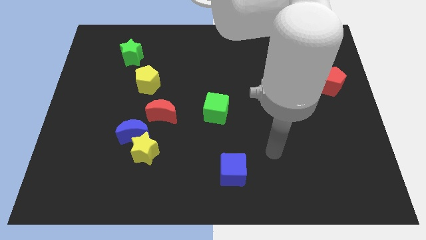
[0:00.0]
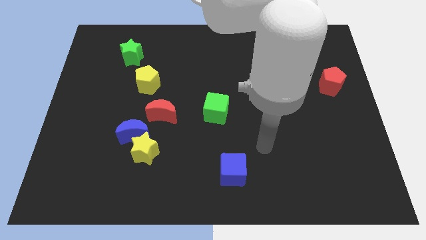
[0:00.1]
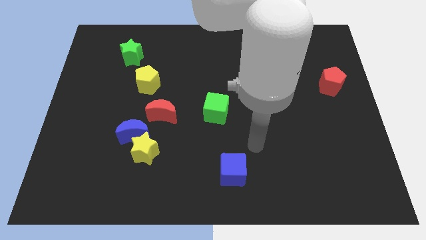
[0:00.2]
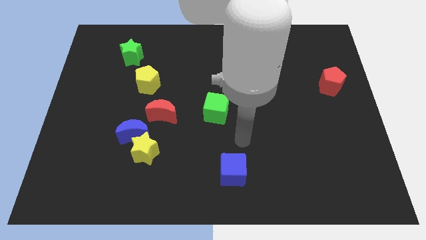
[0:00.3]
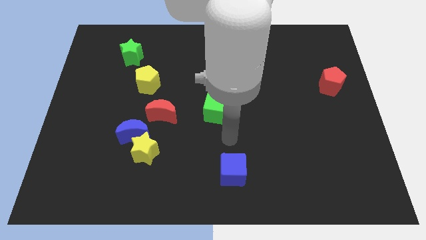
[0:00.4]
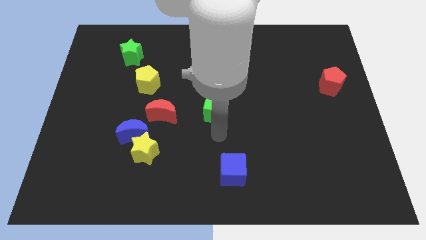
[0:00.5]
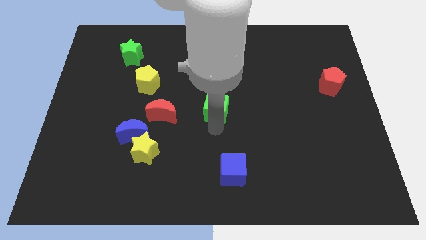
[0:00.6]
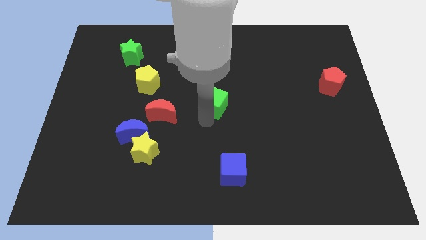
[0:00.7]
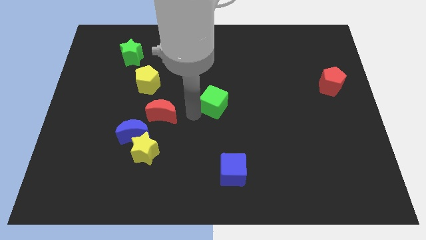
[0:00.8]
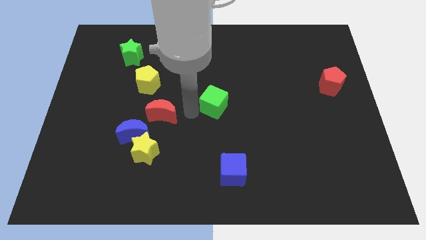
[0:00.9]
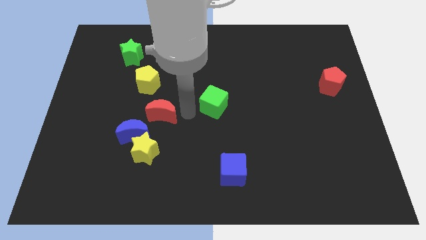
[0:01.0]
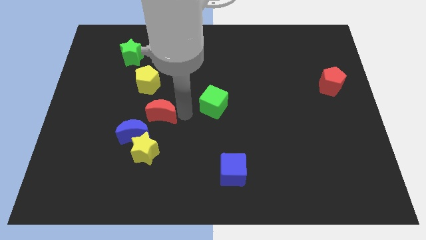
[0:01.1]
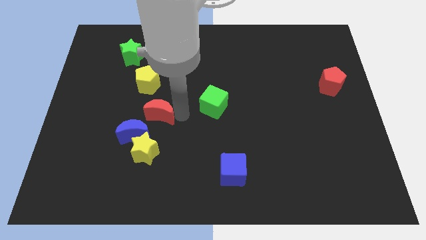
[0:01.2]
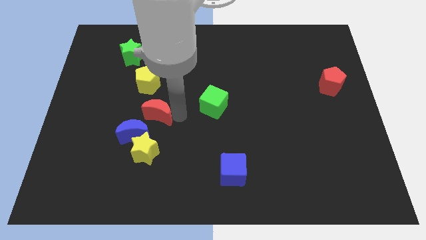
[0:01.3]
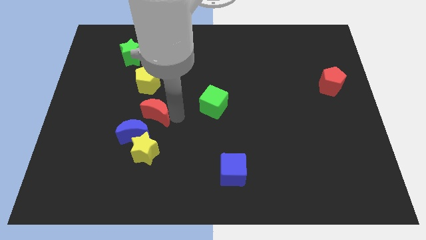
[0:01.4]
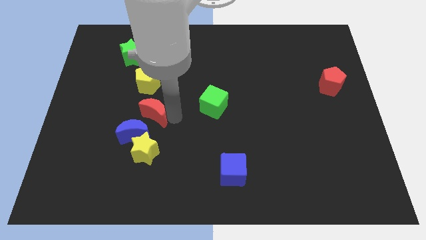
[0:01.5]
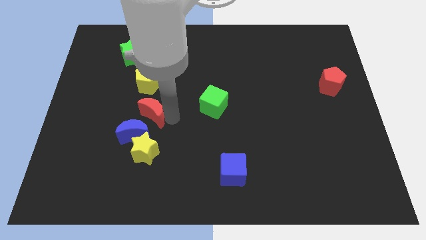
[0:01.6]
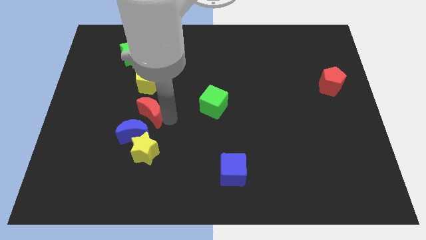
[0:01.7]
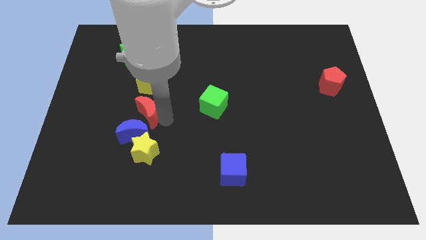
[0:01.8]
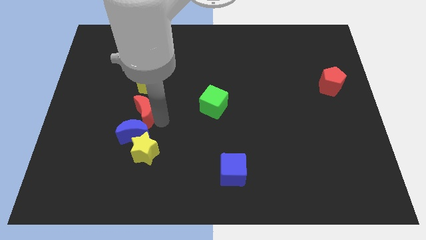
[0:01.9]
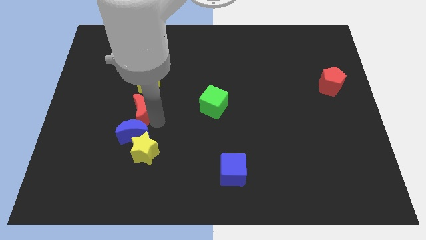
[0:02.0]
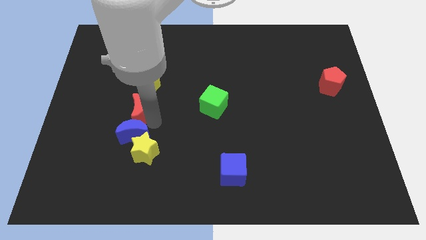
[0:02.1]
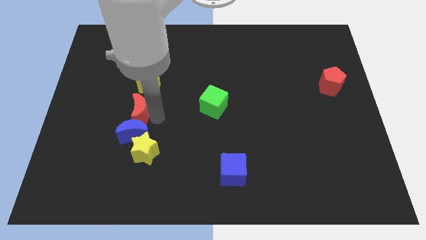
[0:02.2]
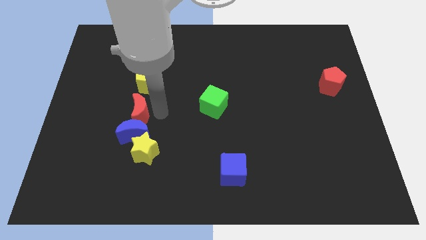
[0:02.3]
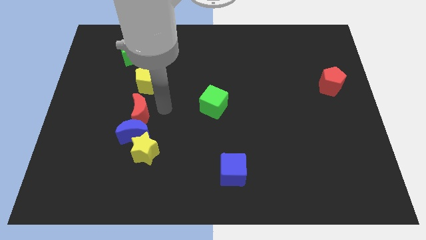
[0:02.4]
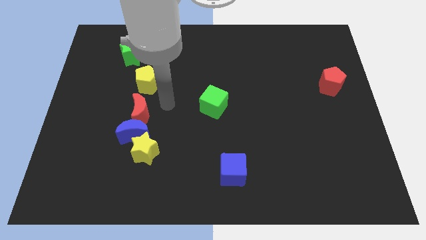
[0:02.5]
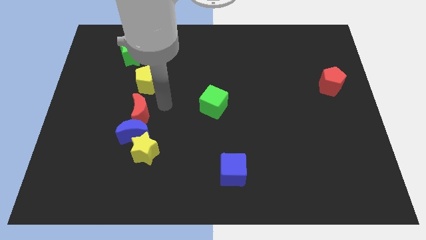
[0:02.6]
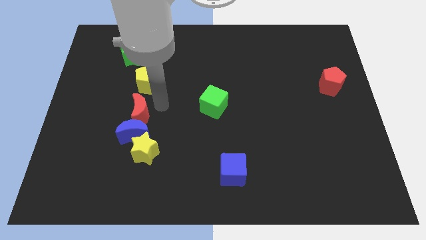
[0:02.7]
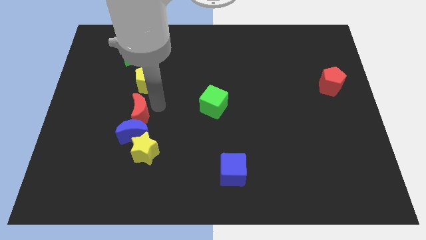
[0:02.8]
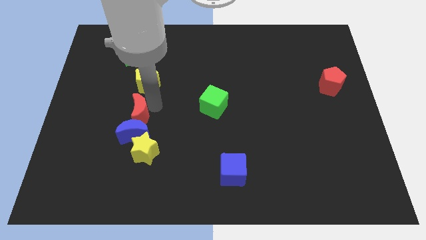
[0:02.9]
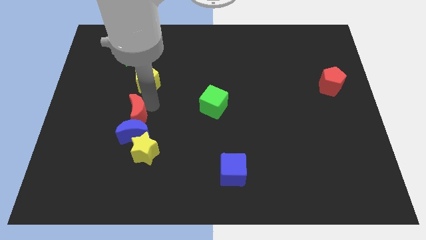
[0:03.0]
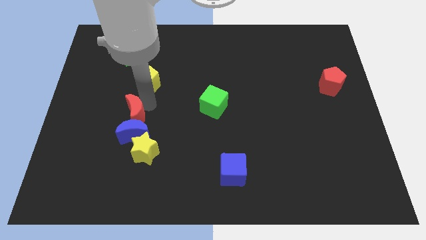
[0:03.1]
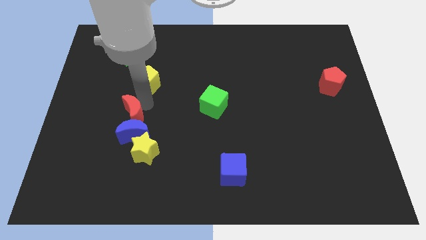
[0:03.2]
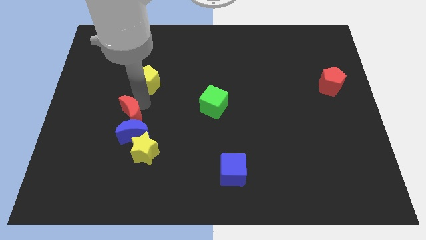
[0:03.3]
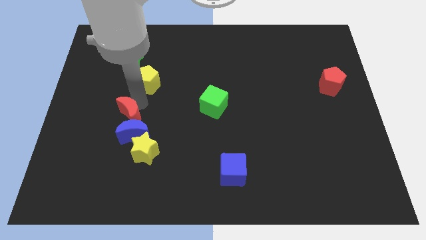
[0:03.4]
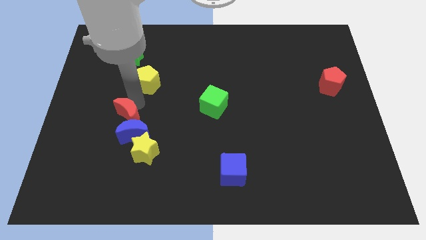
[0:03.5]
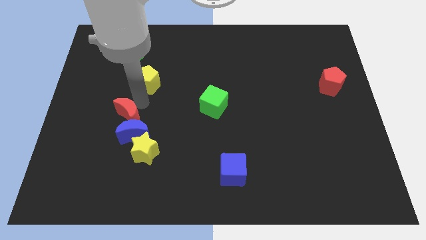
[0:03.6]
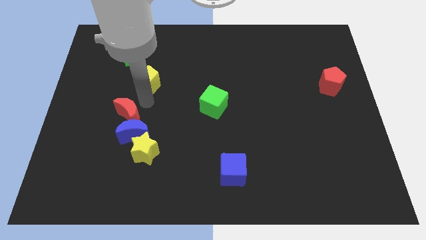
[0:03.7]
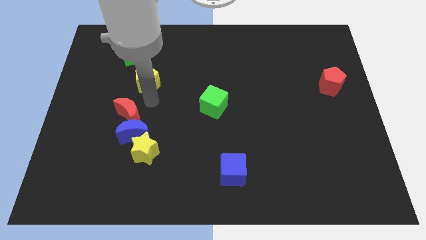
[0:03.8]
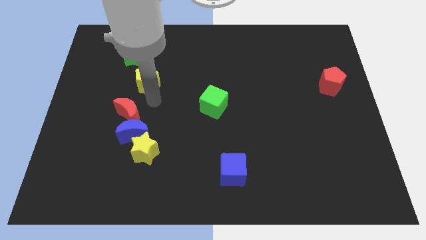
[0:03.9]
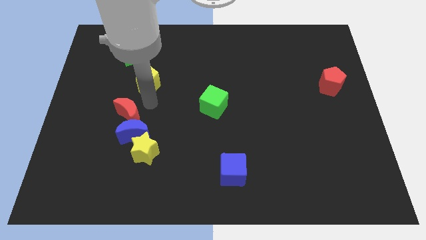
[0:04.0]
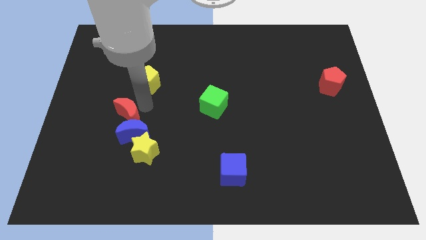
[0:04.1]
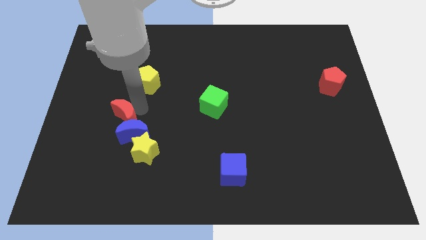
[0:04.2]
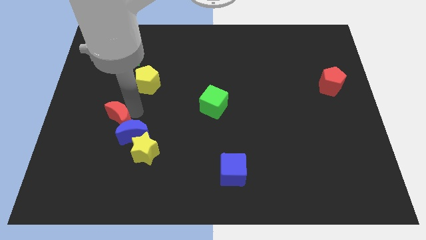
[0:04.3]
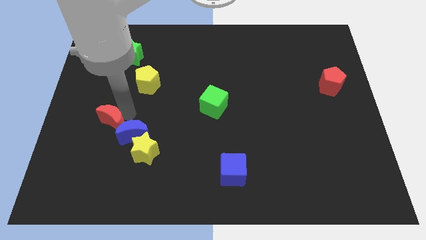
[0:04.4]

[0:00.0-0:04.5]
slightly push the red moon diagonally down and to the left

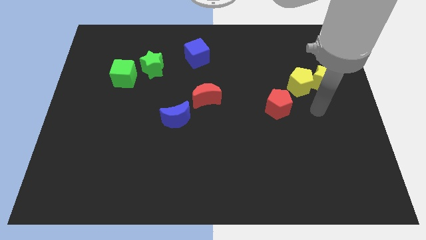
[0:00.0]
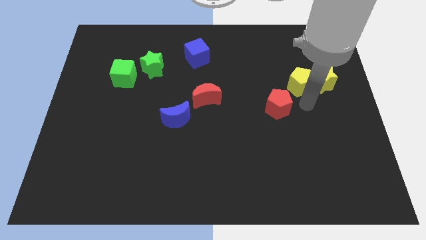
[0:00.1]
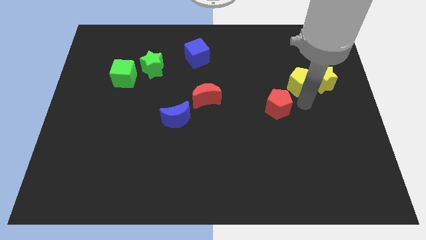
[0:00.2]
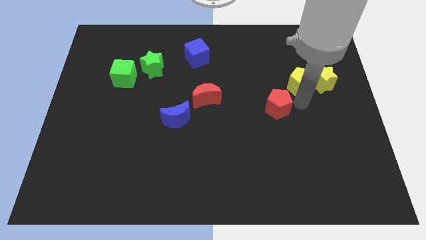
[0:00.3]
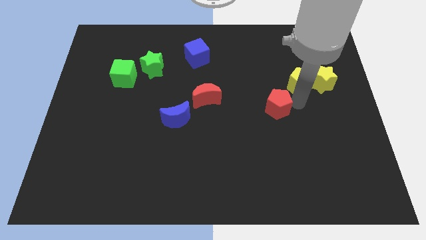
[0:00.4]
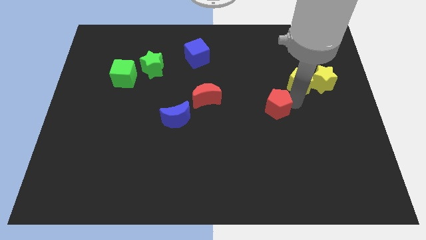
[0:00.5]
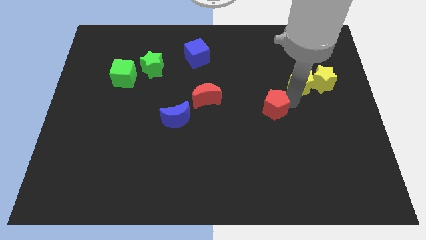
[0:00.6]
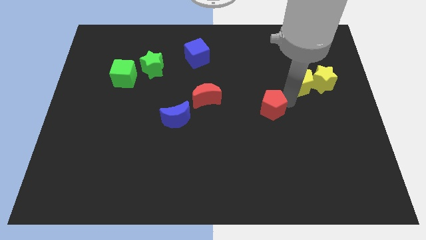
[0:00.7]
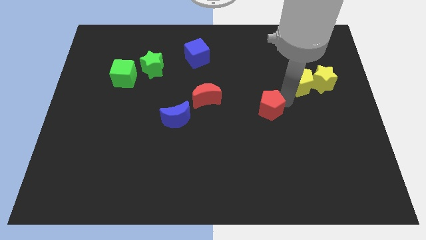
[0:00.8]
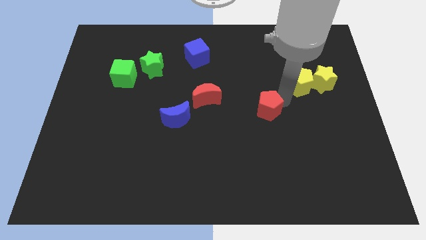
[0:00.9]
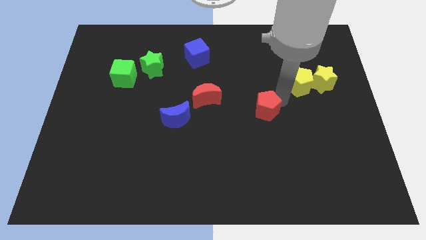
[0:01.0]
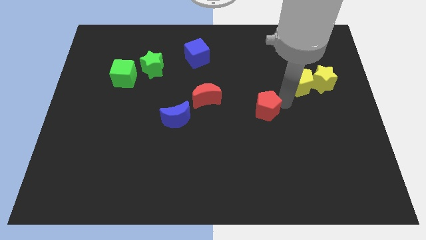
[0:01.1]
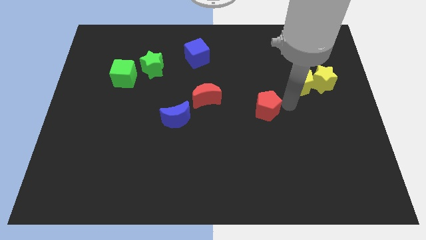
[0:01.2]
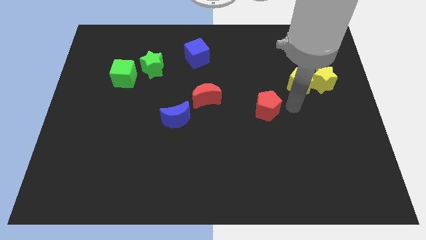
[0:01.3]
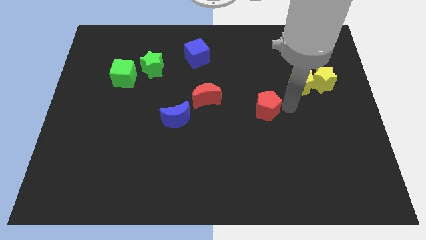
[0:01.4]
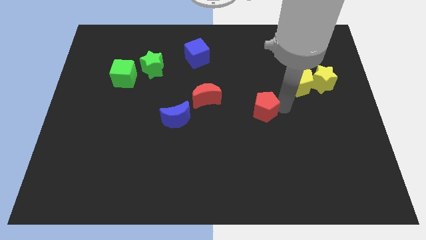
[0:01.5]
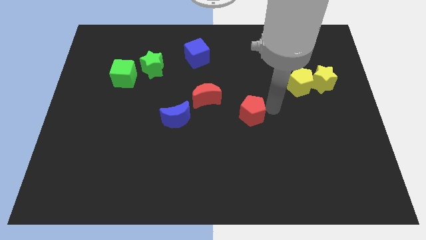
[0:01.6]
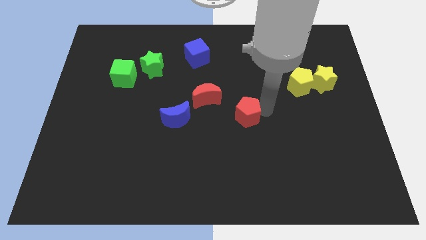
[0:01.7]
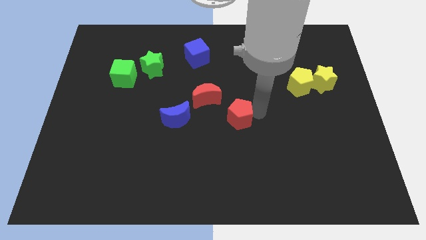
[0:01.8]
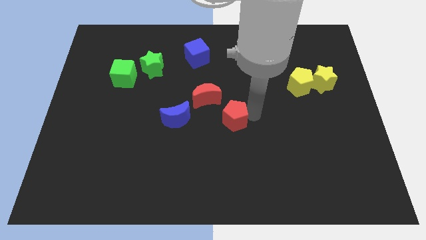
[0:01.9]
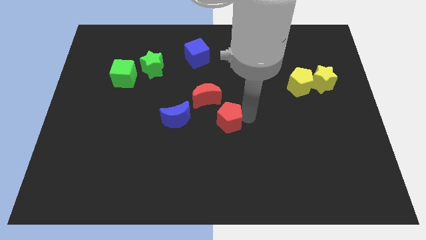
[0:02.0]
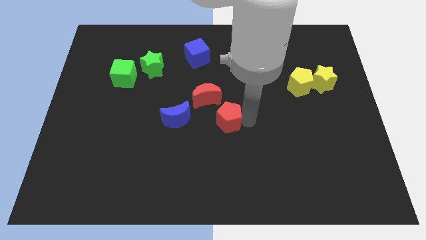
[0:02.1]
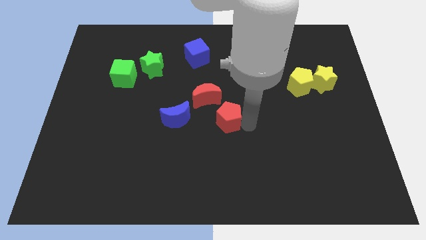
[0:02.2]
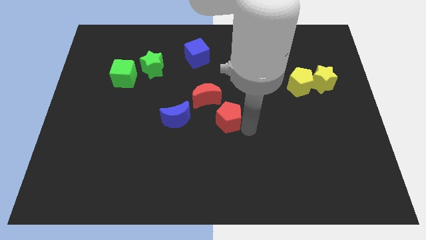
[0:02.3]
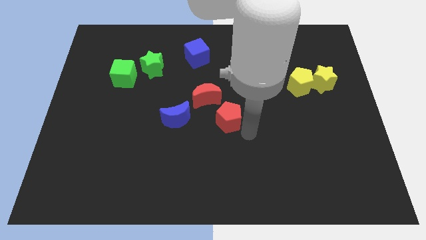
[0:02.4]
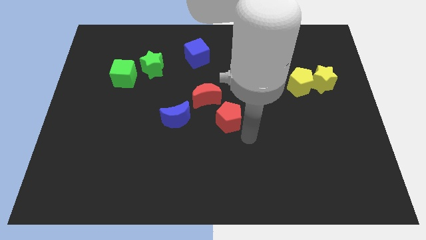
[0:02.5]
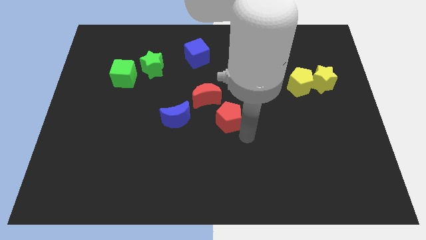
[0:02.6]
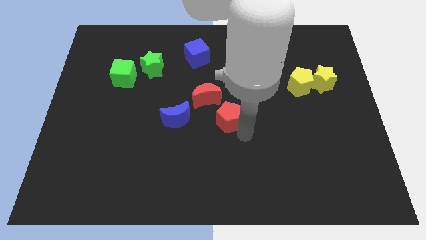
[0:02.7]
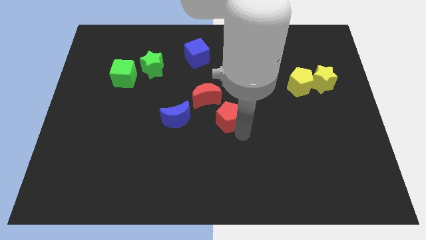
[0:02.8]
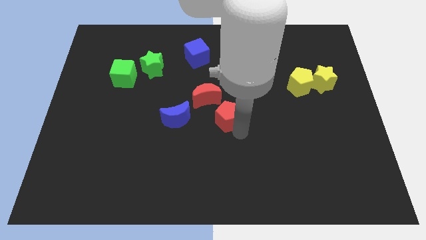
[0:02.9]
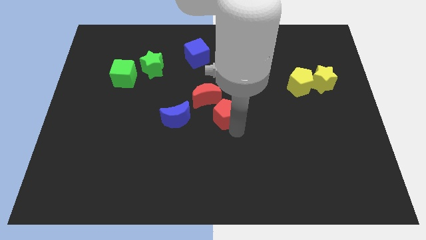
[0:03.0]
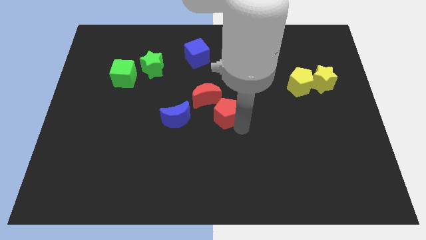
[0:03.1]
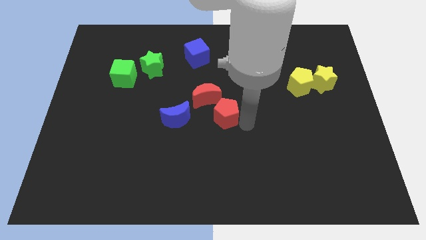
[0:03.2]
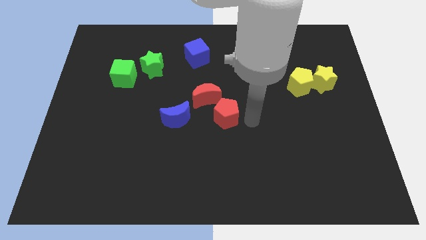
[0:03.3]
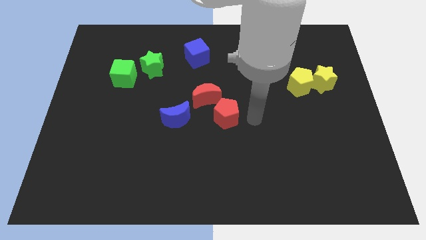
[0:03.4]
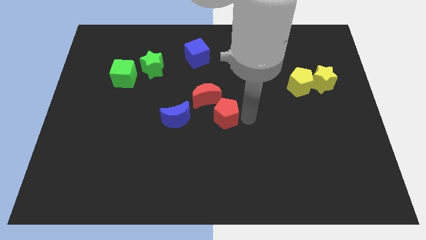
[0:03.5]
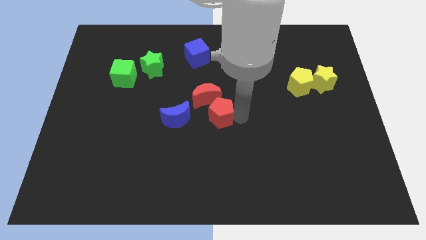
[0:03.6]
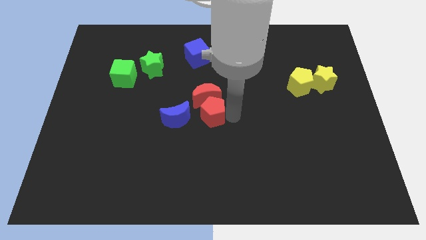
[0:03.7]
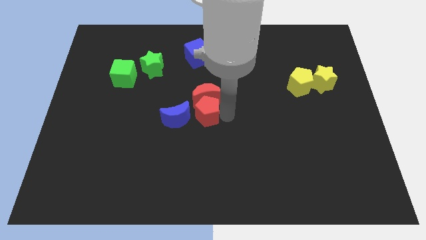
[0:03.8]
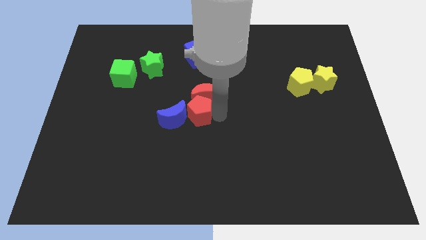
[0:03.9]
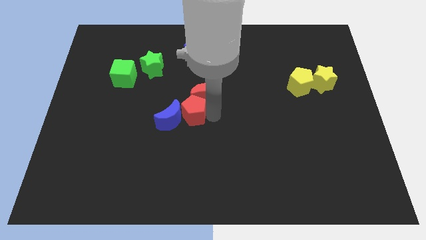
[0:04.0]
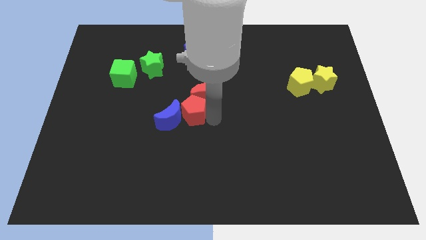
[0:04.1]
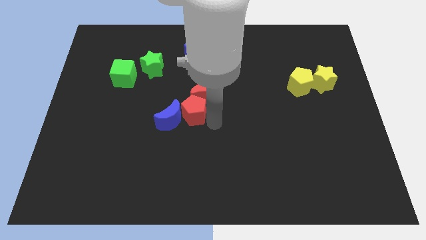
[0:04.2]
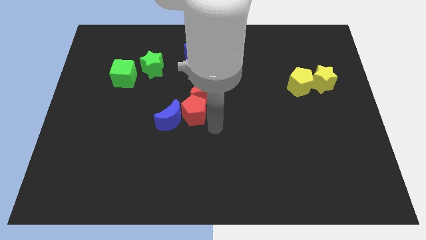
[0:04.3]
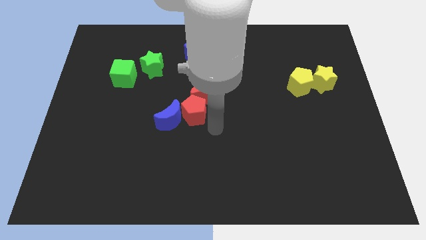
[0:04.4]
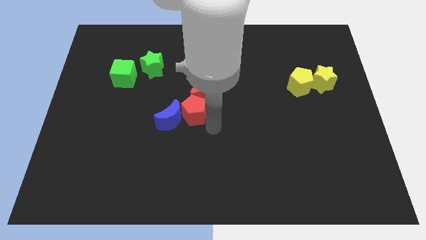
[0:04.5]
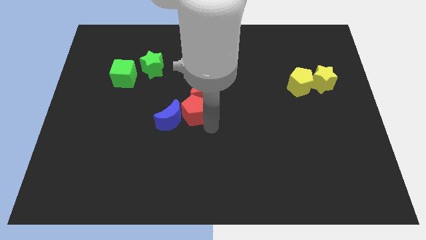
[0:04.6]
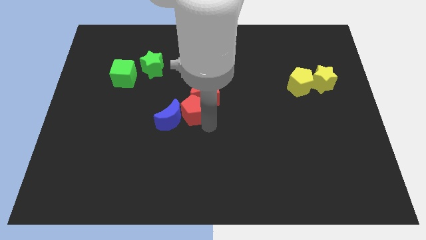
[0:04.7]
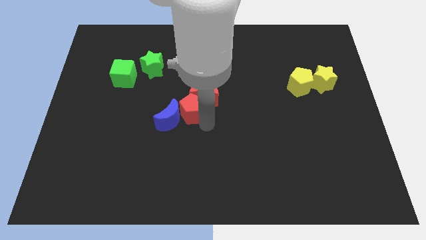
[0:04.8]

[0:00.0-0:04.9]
push the red pentagon to the left
